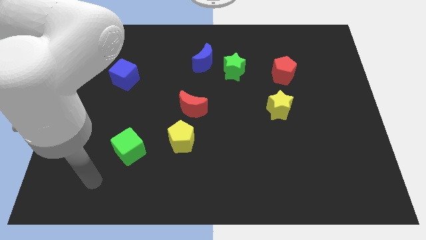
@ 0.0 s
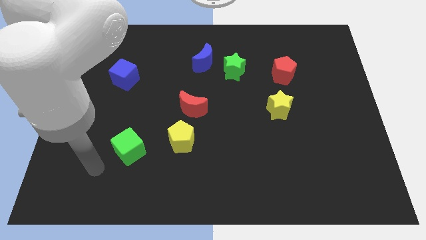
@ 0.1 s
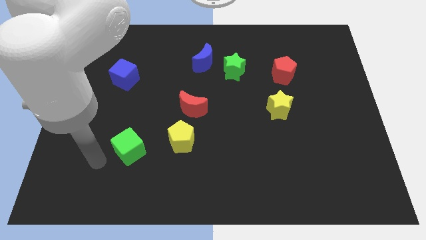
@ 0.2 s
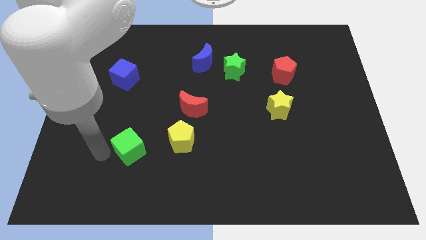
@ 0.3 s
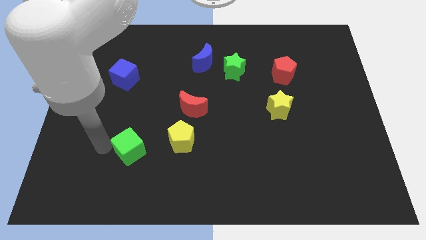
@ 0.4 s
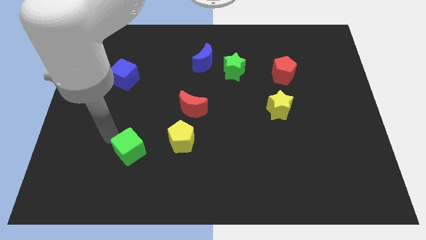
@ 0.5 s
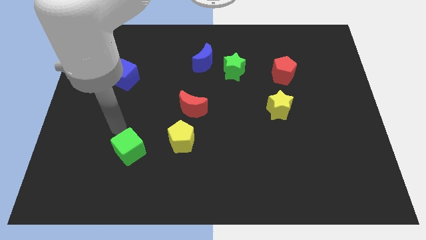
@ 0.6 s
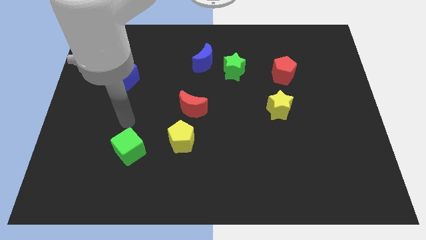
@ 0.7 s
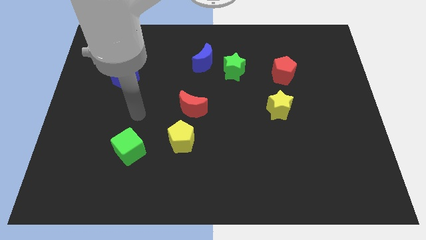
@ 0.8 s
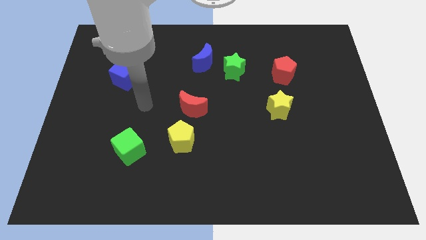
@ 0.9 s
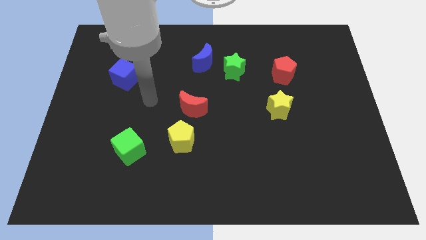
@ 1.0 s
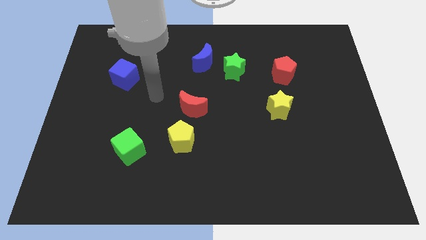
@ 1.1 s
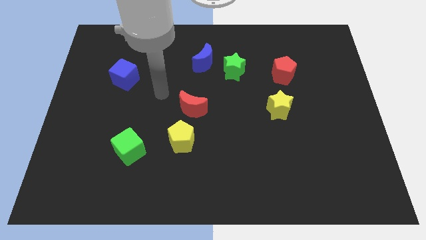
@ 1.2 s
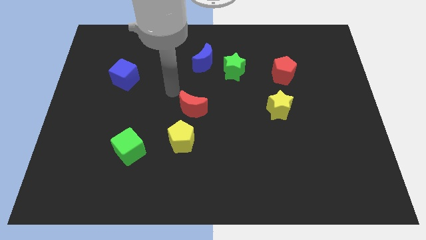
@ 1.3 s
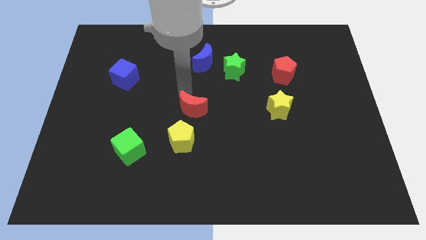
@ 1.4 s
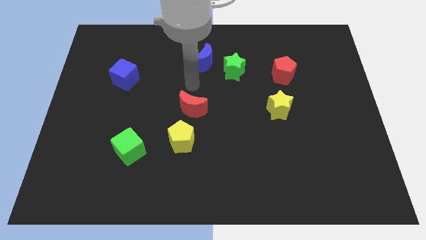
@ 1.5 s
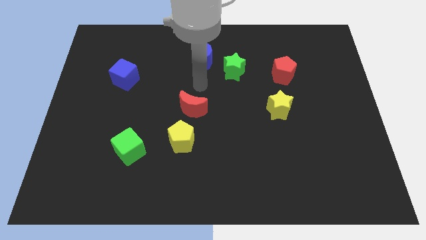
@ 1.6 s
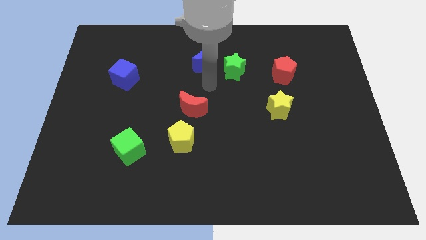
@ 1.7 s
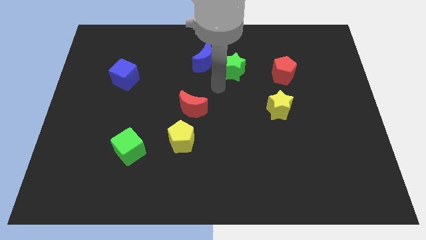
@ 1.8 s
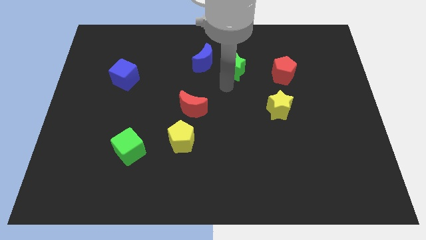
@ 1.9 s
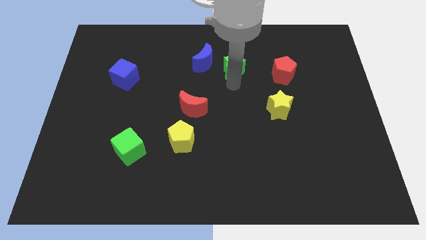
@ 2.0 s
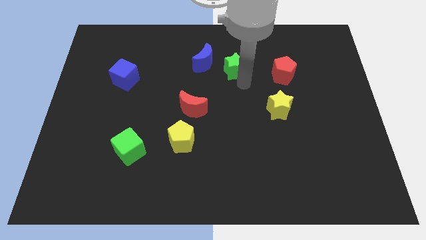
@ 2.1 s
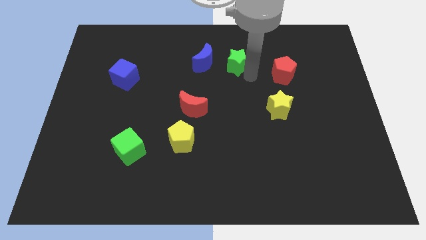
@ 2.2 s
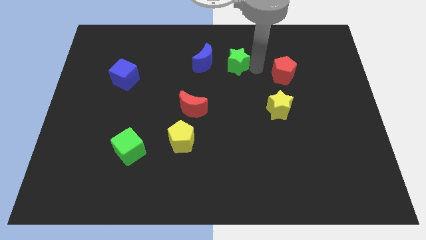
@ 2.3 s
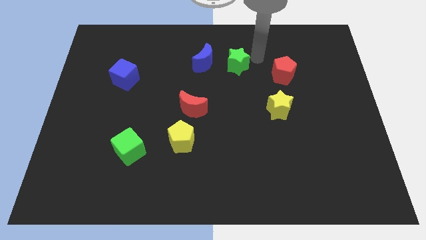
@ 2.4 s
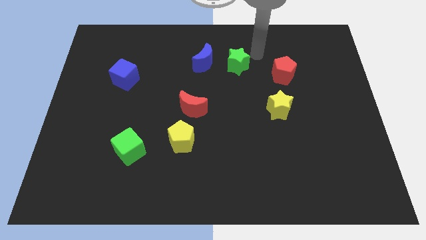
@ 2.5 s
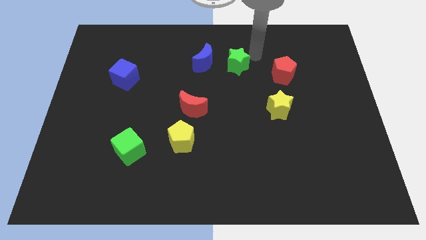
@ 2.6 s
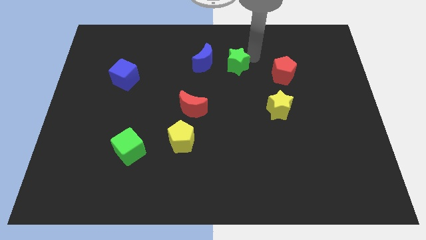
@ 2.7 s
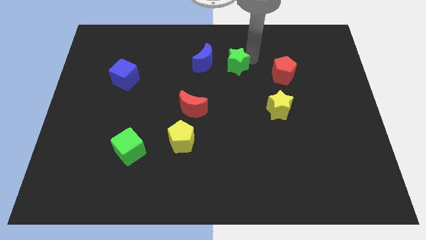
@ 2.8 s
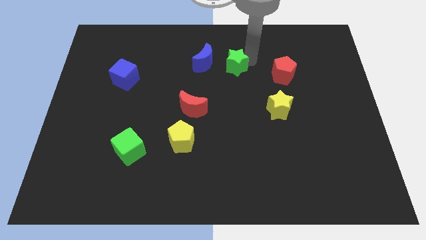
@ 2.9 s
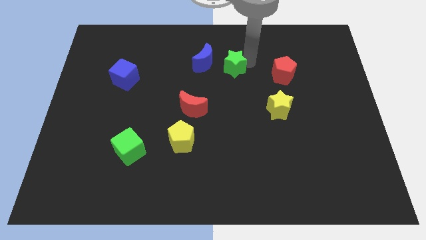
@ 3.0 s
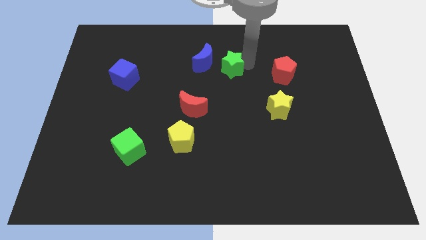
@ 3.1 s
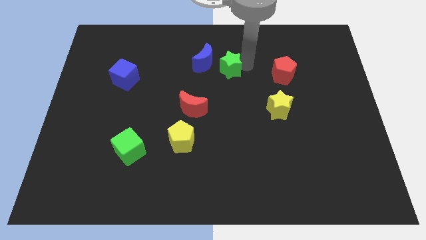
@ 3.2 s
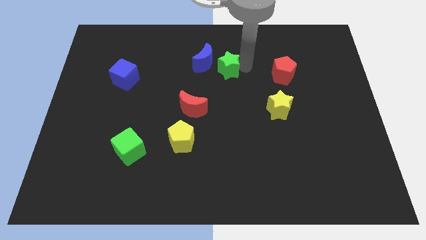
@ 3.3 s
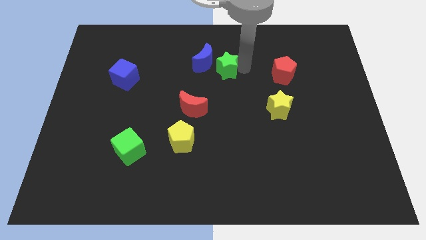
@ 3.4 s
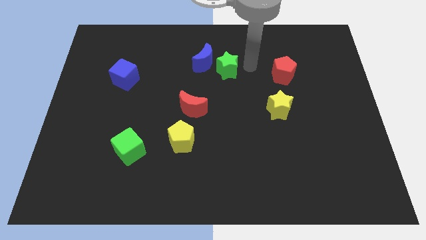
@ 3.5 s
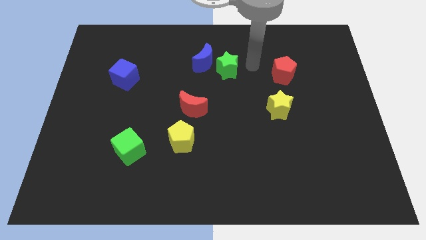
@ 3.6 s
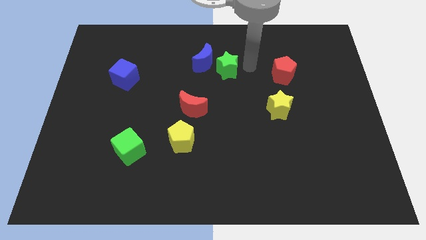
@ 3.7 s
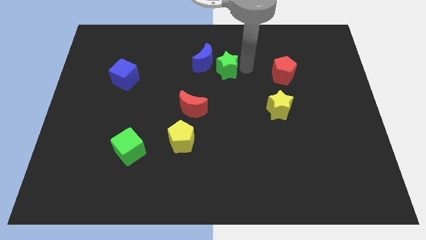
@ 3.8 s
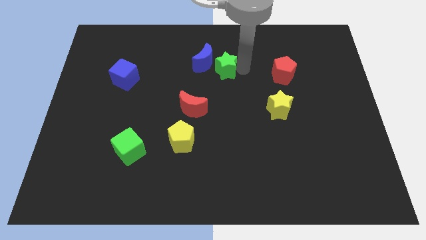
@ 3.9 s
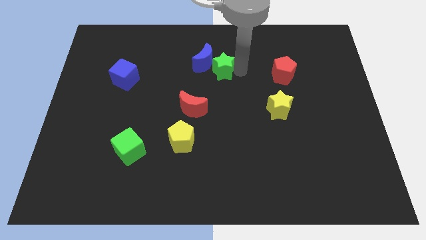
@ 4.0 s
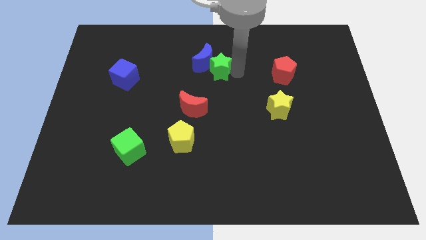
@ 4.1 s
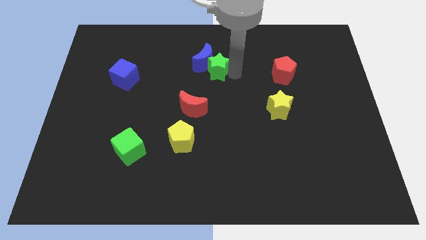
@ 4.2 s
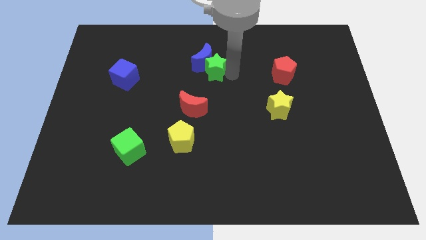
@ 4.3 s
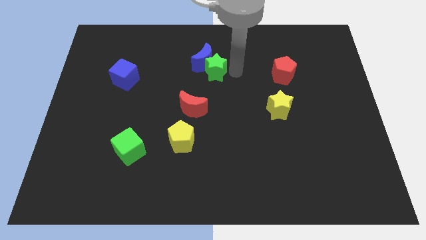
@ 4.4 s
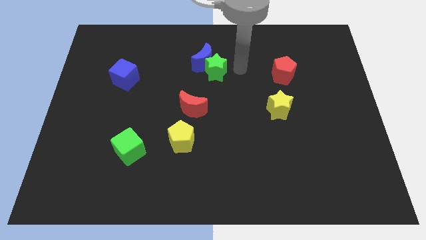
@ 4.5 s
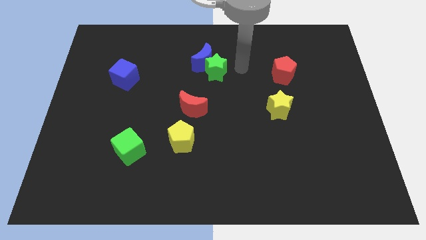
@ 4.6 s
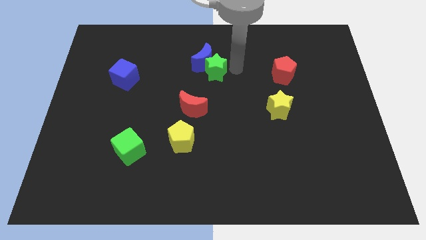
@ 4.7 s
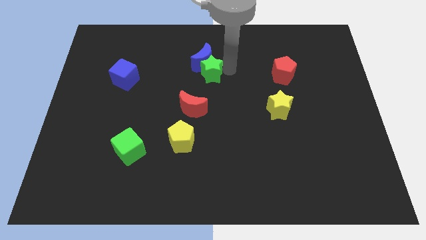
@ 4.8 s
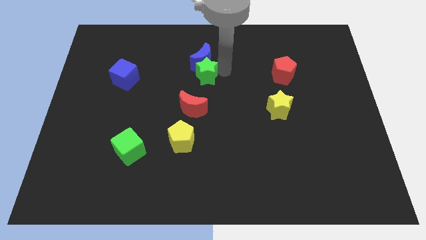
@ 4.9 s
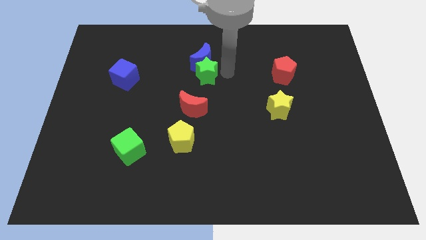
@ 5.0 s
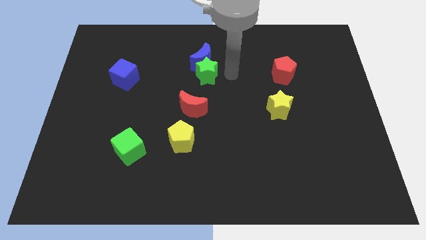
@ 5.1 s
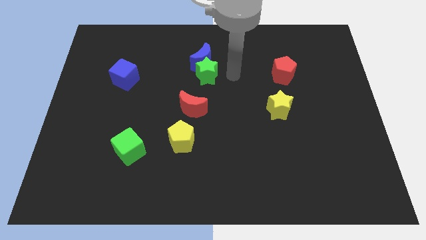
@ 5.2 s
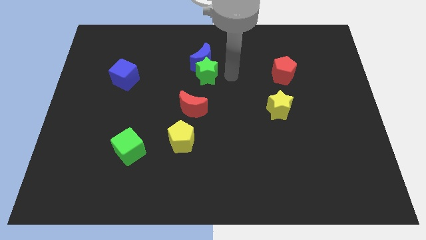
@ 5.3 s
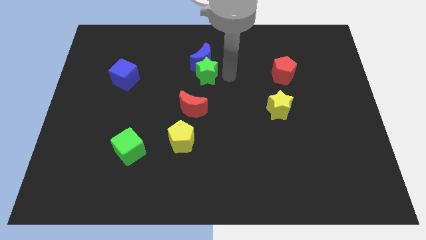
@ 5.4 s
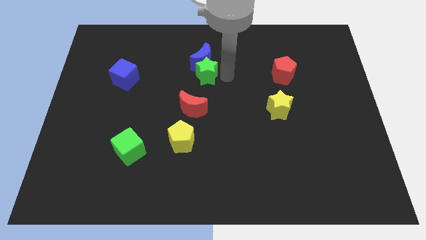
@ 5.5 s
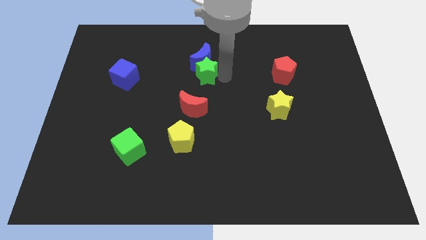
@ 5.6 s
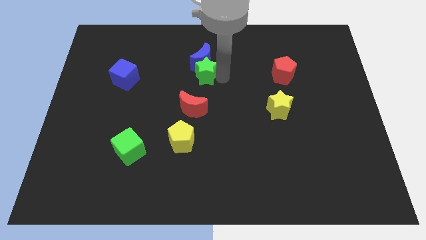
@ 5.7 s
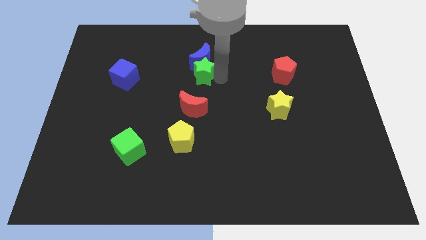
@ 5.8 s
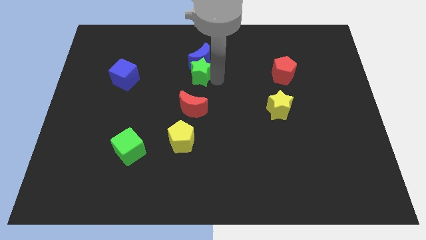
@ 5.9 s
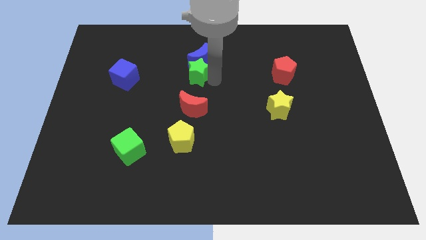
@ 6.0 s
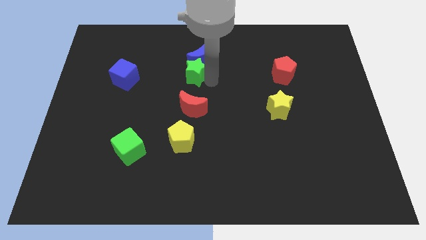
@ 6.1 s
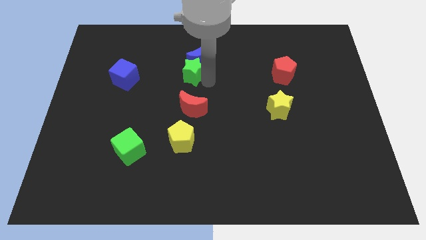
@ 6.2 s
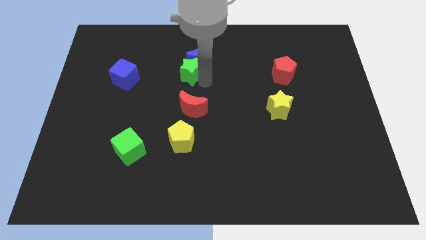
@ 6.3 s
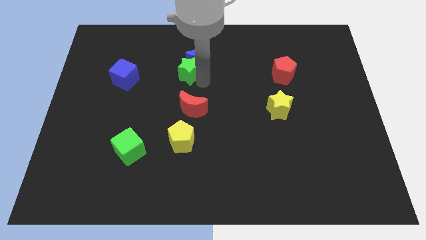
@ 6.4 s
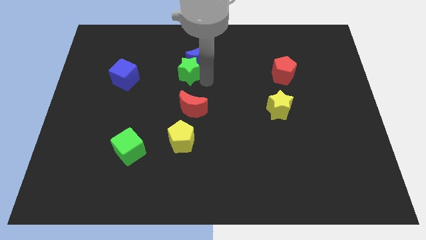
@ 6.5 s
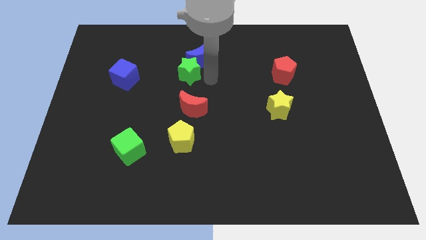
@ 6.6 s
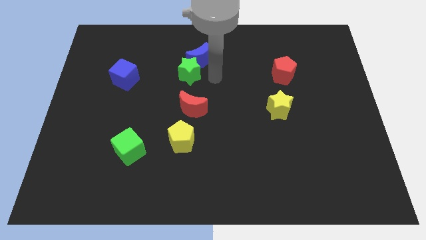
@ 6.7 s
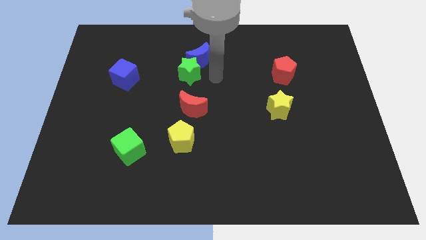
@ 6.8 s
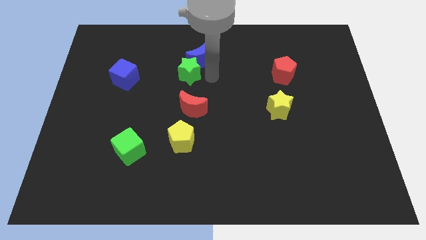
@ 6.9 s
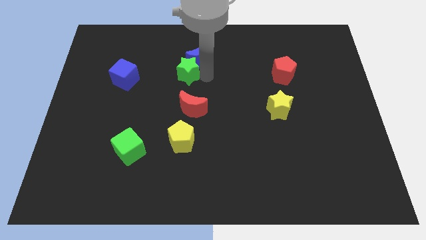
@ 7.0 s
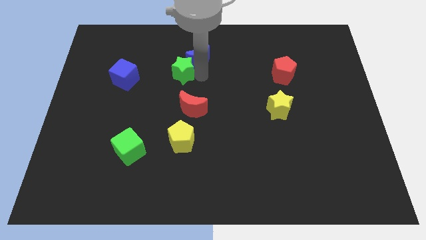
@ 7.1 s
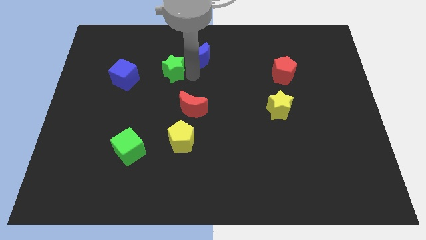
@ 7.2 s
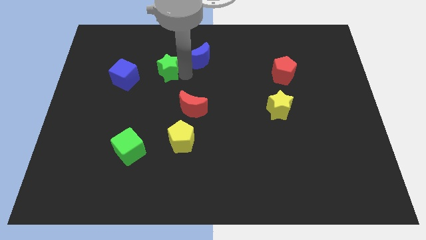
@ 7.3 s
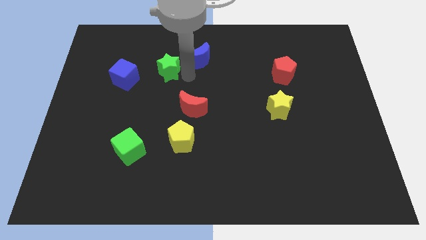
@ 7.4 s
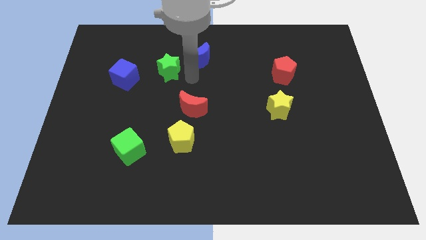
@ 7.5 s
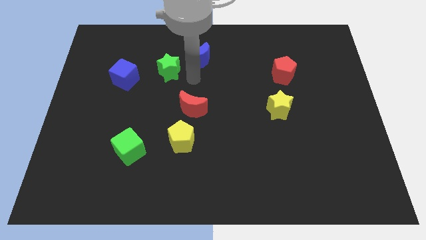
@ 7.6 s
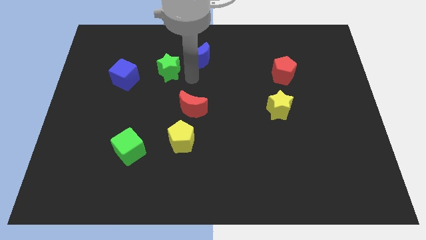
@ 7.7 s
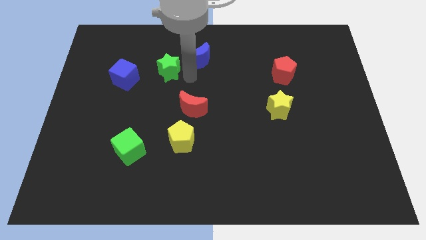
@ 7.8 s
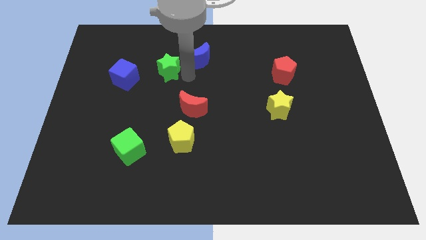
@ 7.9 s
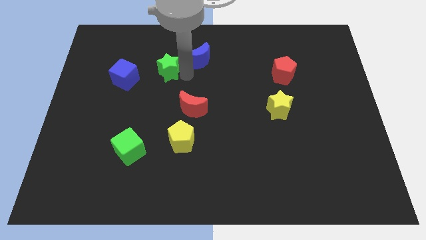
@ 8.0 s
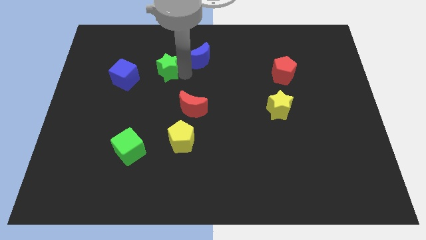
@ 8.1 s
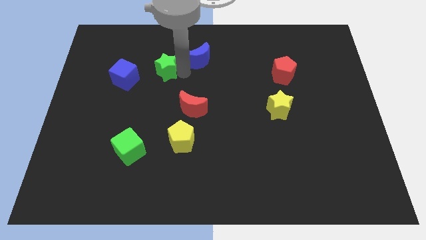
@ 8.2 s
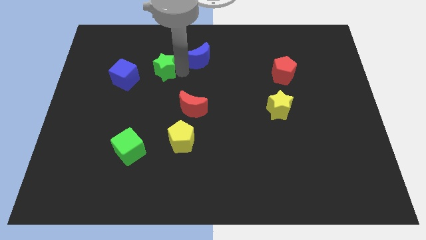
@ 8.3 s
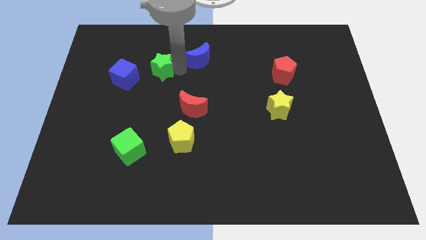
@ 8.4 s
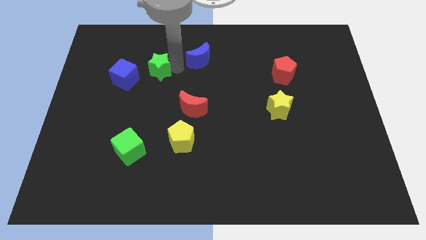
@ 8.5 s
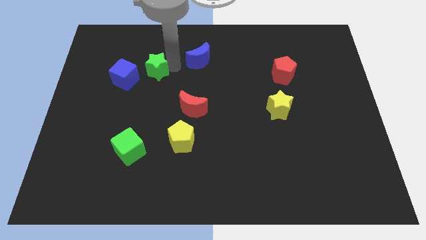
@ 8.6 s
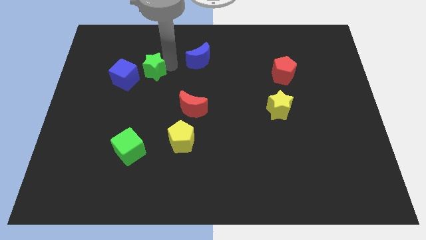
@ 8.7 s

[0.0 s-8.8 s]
move the green star left
